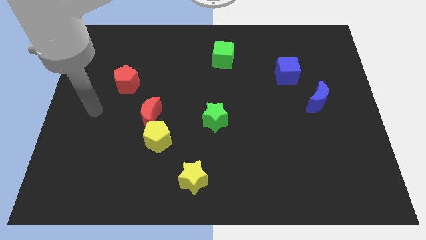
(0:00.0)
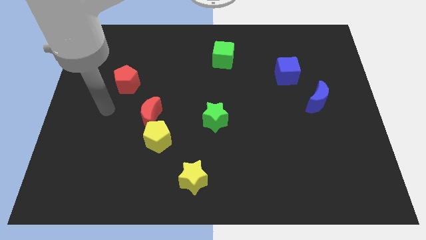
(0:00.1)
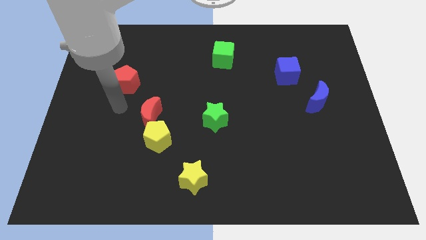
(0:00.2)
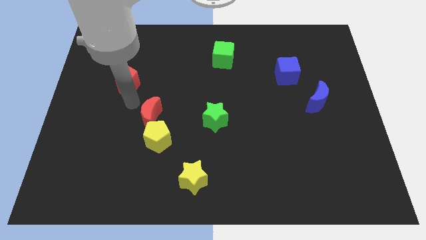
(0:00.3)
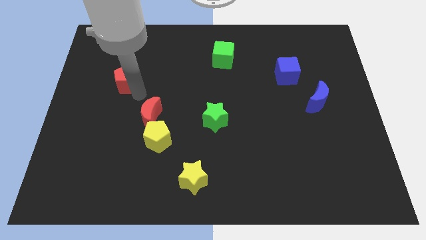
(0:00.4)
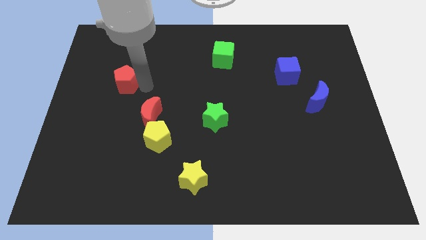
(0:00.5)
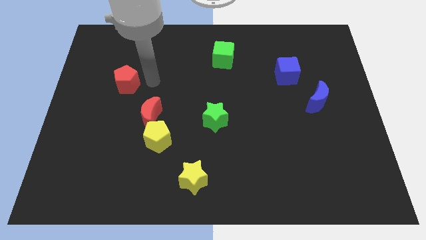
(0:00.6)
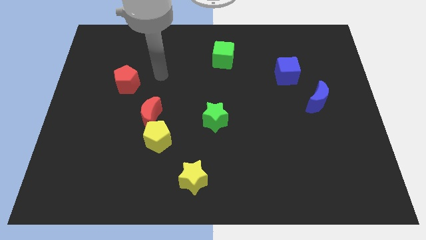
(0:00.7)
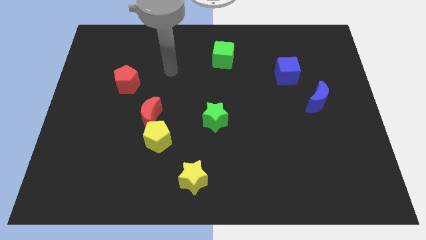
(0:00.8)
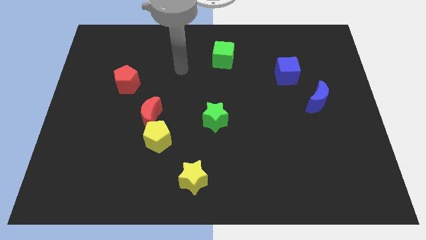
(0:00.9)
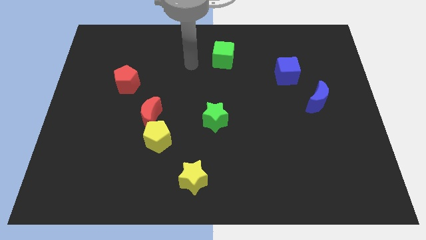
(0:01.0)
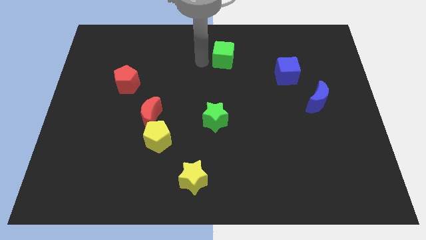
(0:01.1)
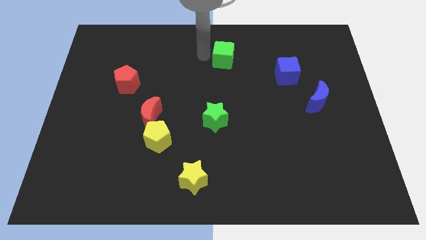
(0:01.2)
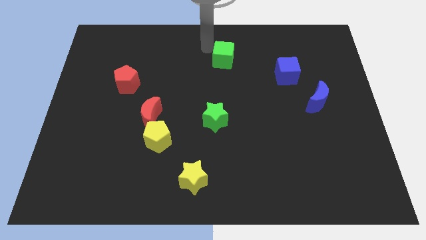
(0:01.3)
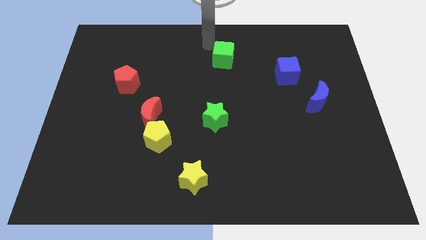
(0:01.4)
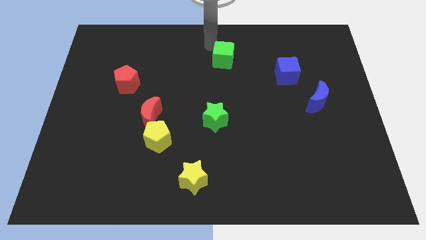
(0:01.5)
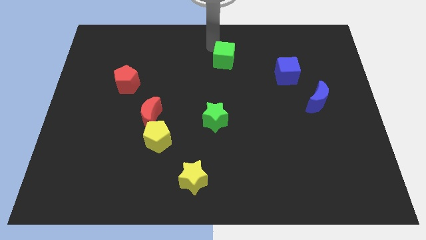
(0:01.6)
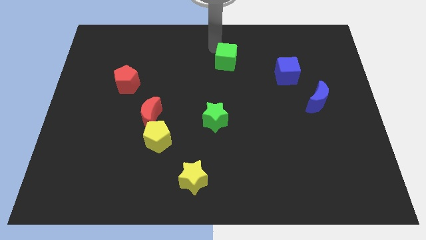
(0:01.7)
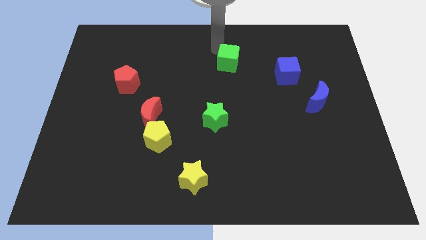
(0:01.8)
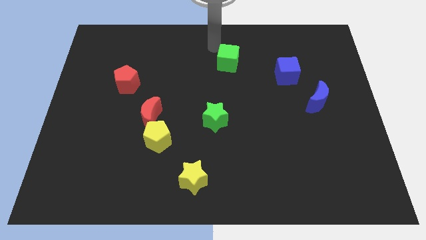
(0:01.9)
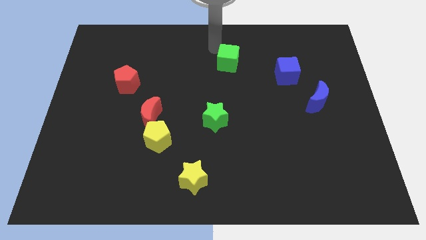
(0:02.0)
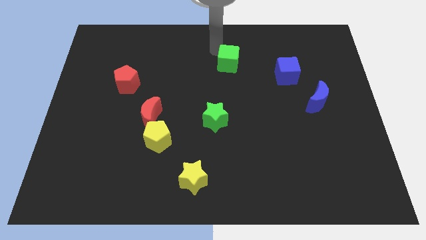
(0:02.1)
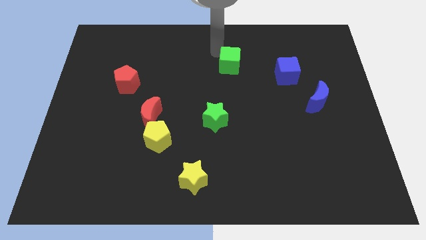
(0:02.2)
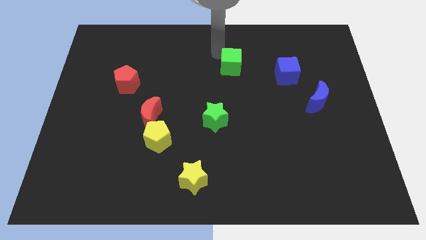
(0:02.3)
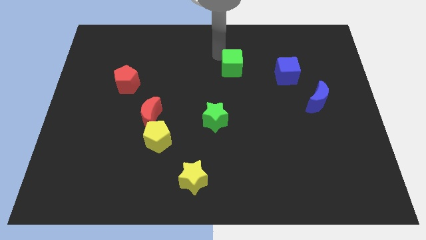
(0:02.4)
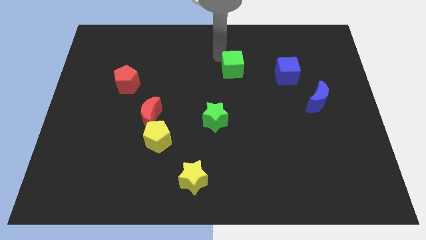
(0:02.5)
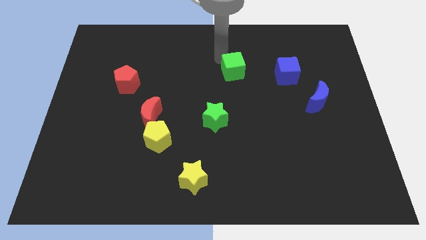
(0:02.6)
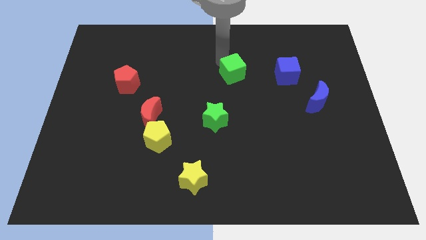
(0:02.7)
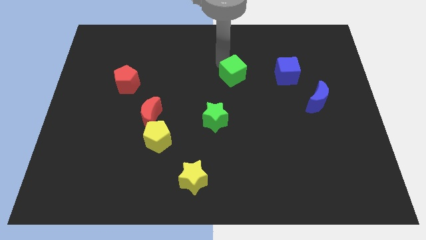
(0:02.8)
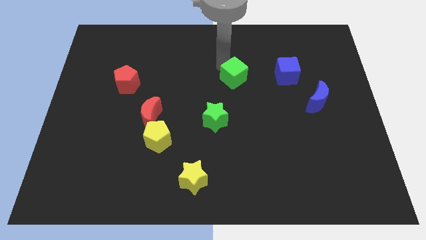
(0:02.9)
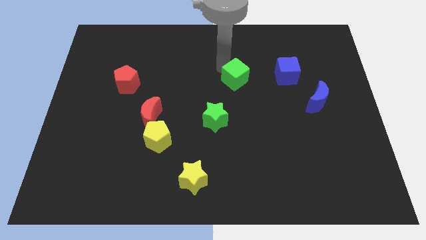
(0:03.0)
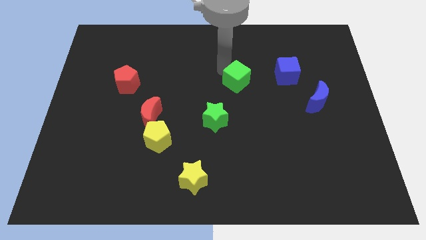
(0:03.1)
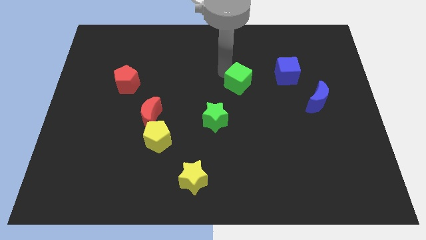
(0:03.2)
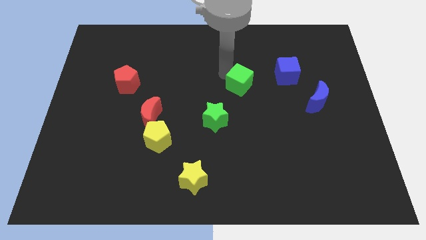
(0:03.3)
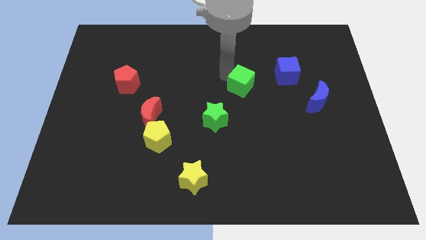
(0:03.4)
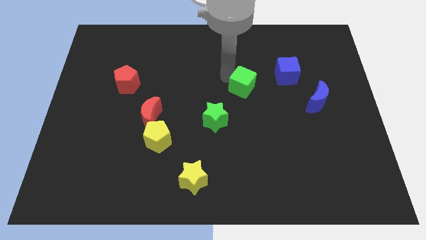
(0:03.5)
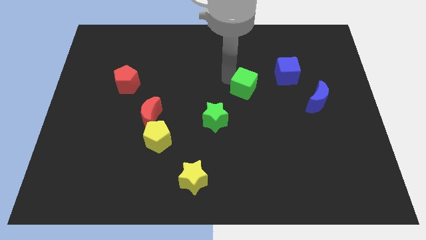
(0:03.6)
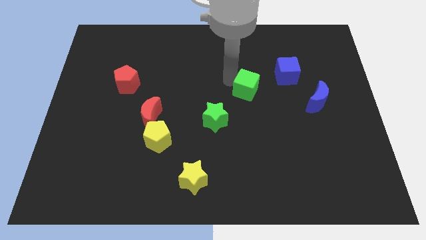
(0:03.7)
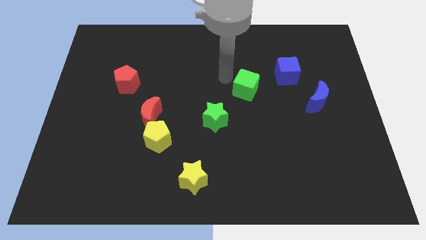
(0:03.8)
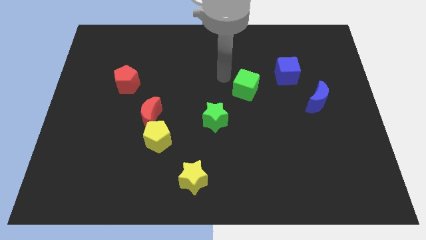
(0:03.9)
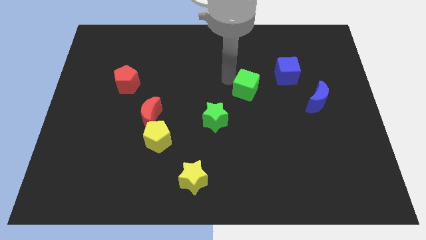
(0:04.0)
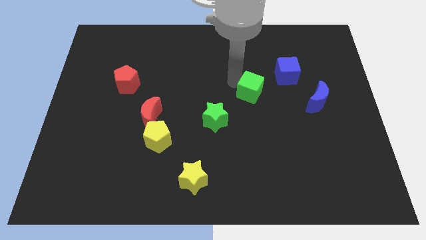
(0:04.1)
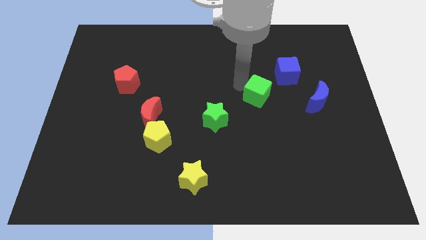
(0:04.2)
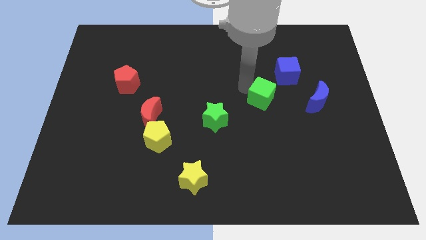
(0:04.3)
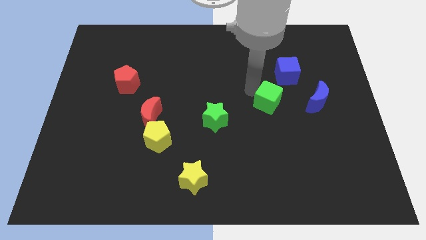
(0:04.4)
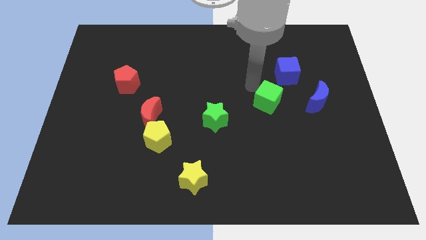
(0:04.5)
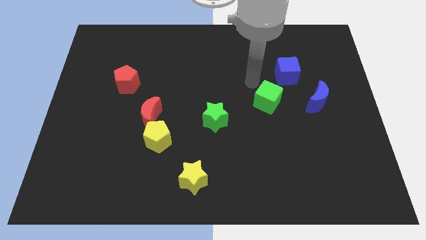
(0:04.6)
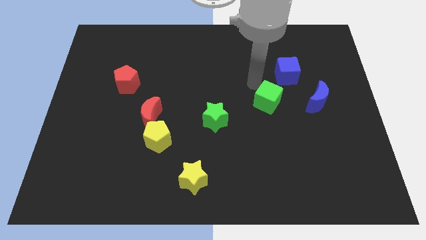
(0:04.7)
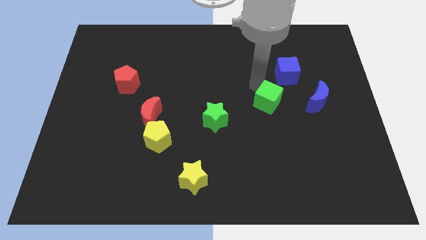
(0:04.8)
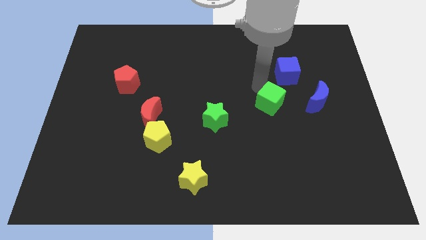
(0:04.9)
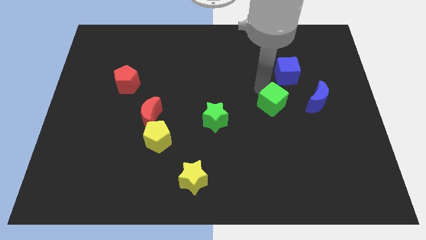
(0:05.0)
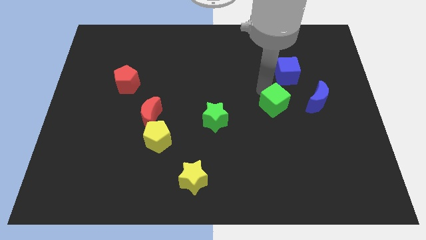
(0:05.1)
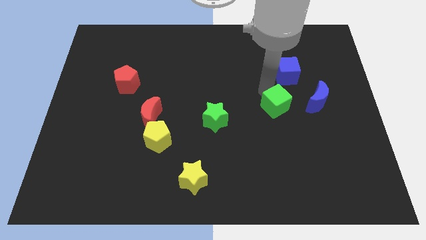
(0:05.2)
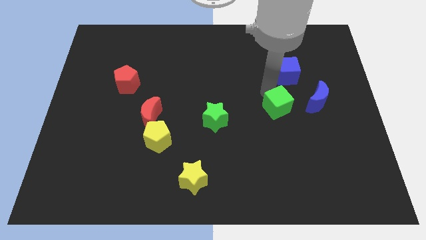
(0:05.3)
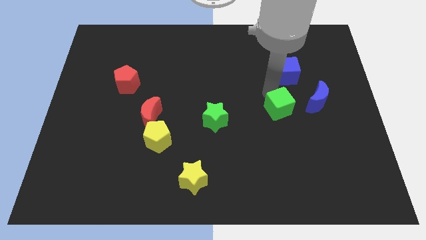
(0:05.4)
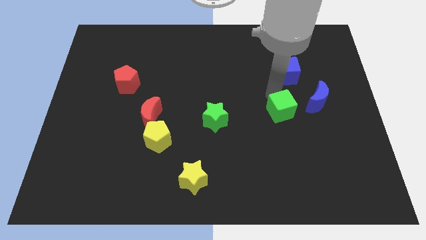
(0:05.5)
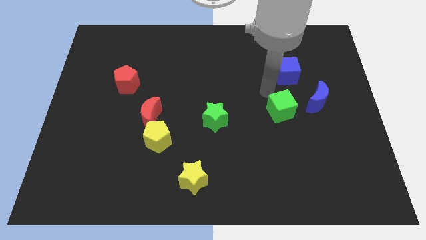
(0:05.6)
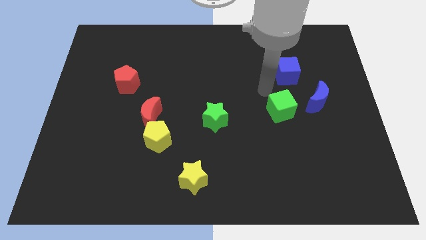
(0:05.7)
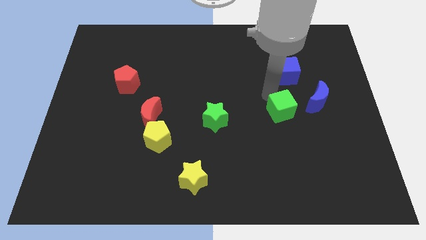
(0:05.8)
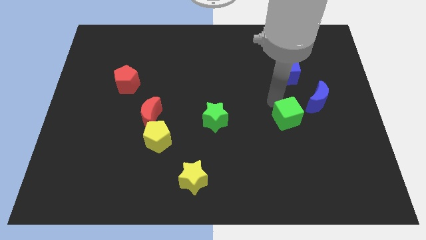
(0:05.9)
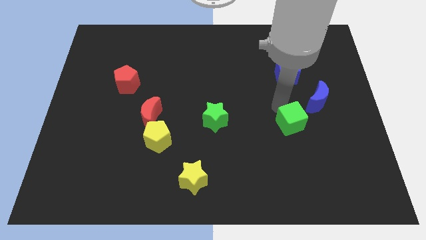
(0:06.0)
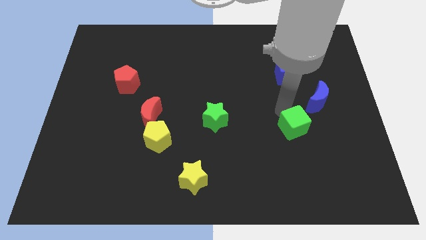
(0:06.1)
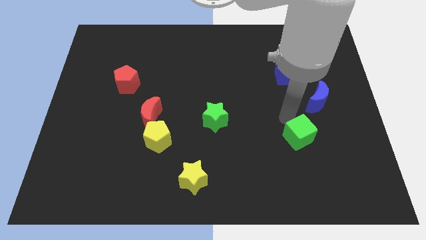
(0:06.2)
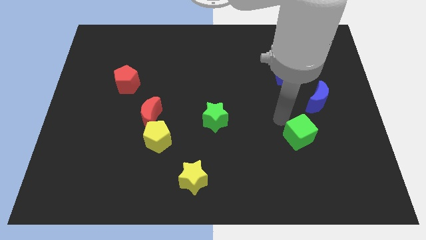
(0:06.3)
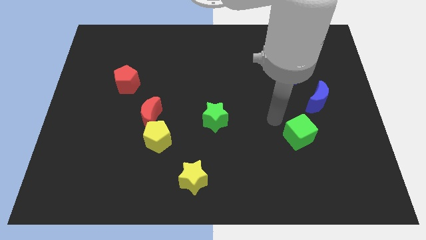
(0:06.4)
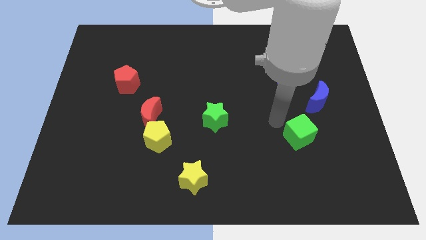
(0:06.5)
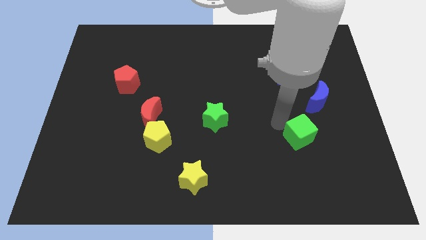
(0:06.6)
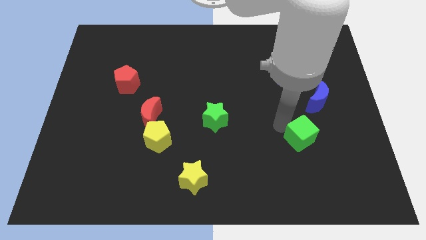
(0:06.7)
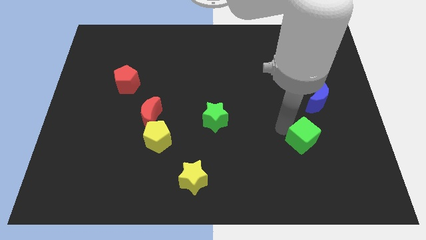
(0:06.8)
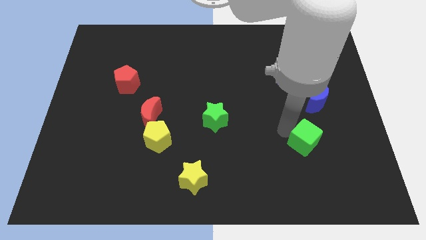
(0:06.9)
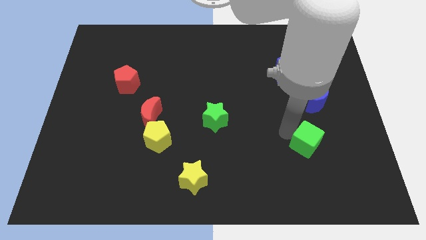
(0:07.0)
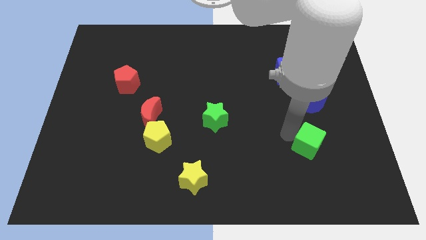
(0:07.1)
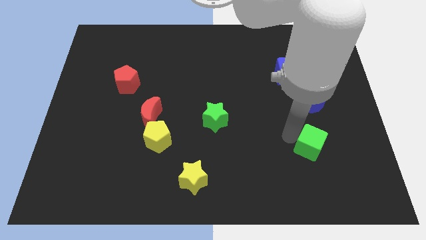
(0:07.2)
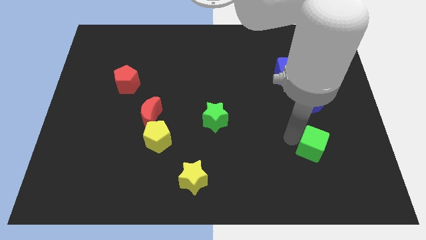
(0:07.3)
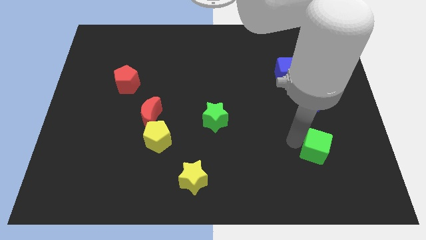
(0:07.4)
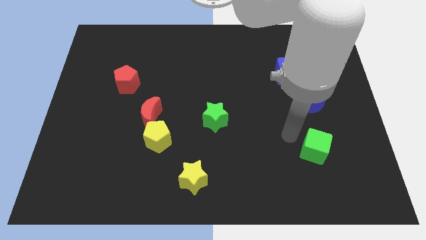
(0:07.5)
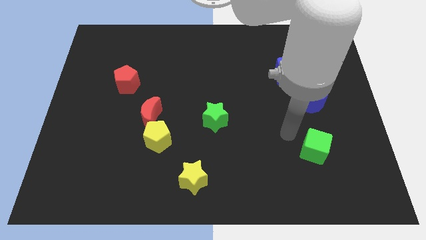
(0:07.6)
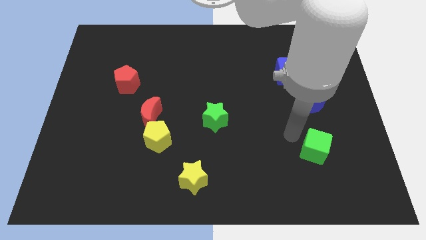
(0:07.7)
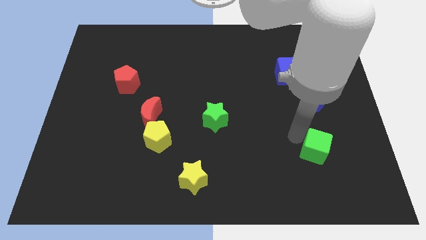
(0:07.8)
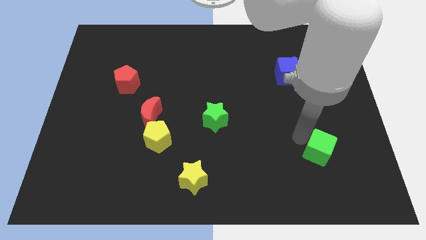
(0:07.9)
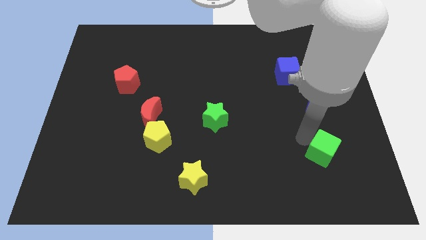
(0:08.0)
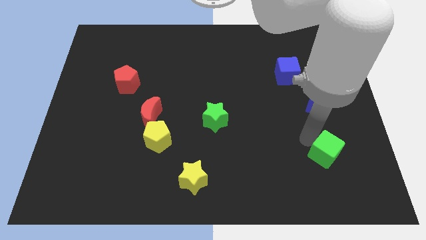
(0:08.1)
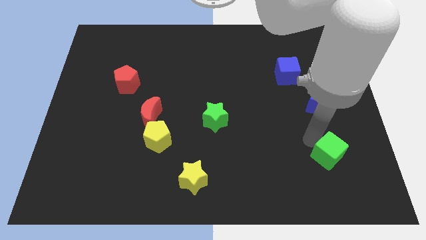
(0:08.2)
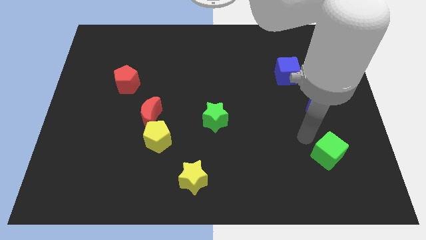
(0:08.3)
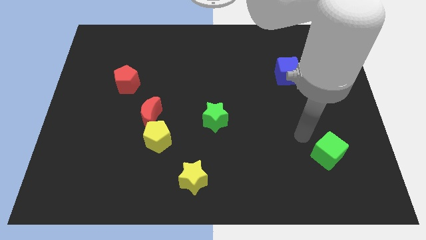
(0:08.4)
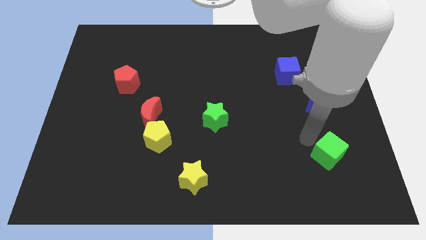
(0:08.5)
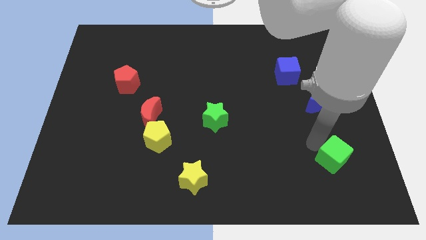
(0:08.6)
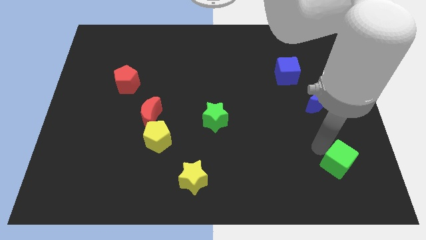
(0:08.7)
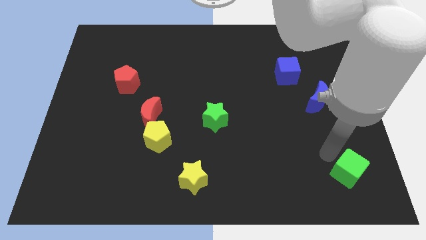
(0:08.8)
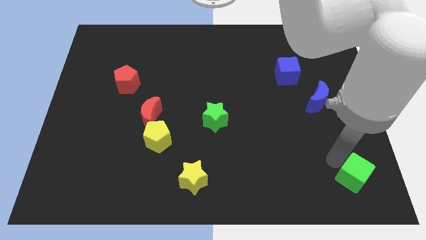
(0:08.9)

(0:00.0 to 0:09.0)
move the green cube to the bottom right corner
